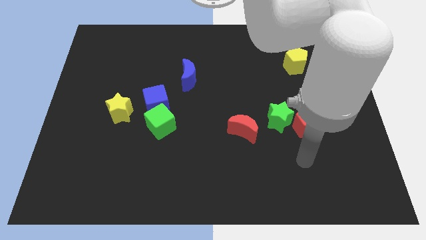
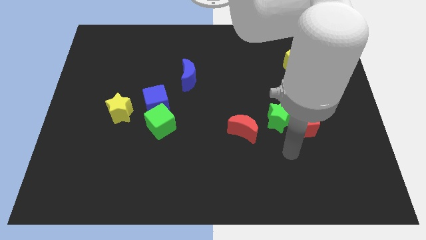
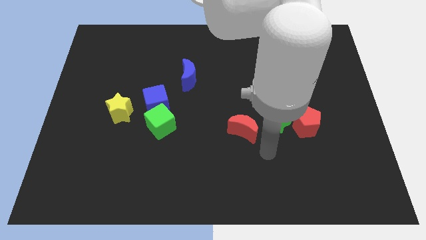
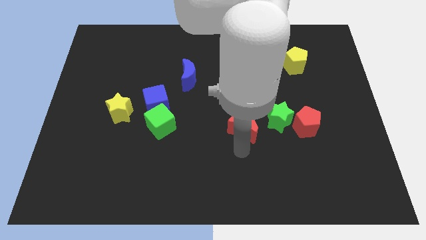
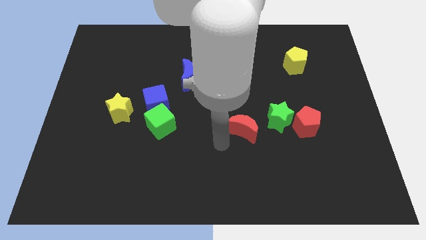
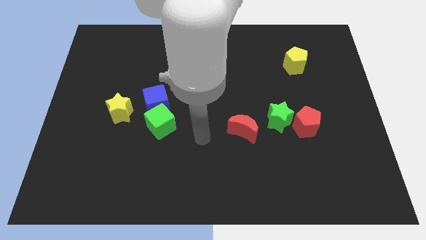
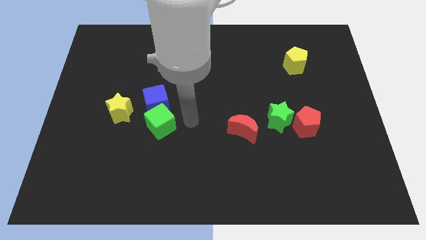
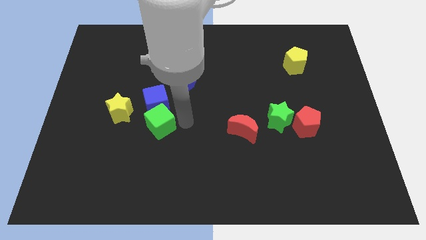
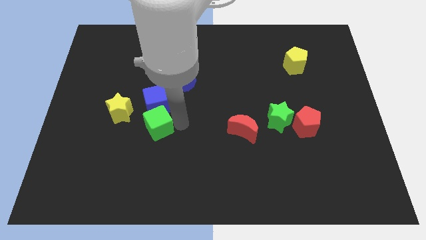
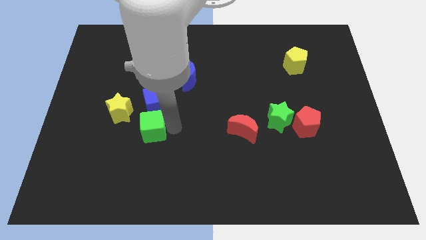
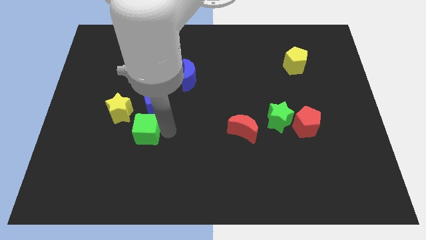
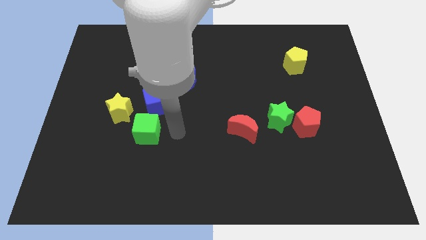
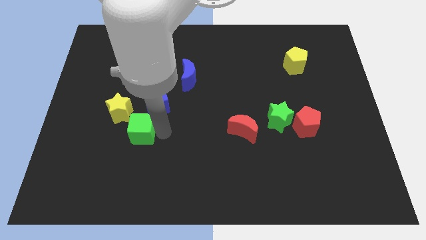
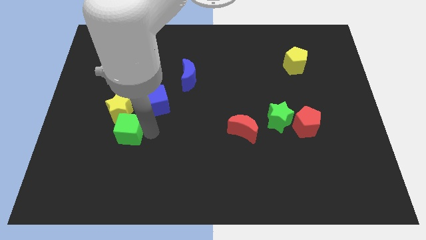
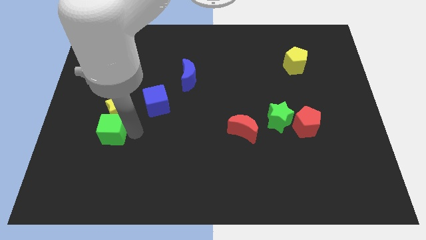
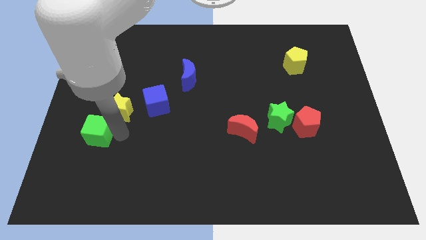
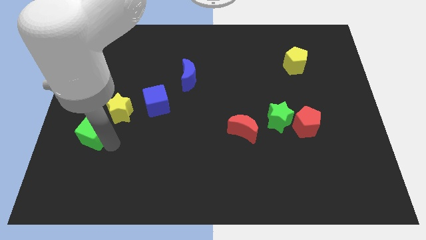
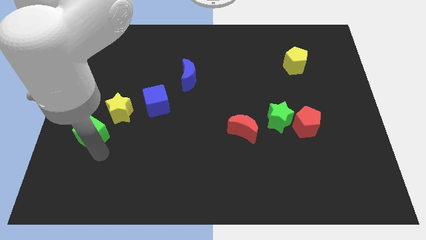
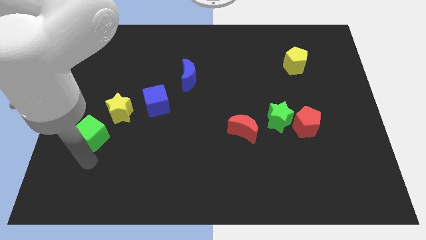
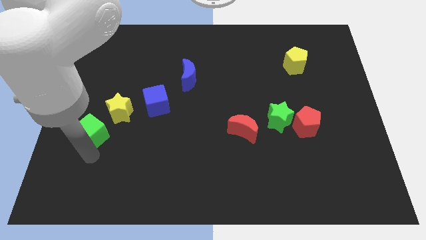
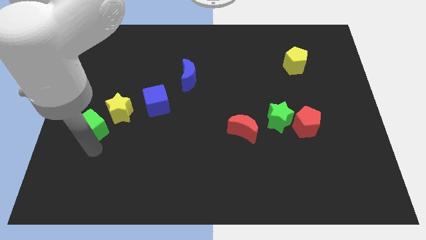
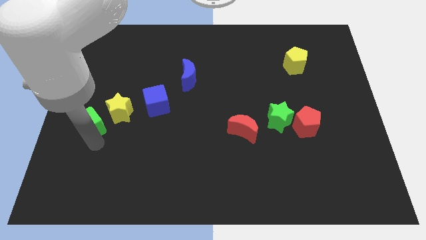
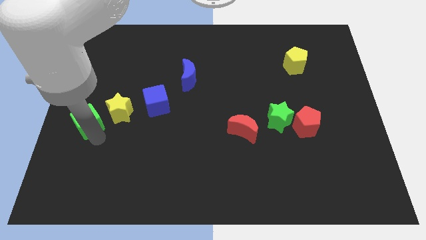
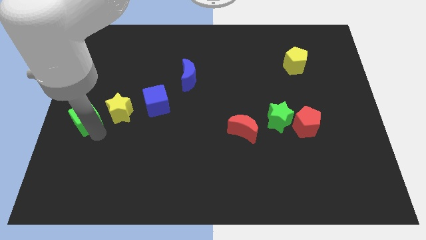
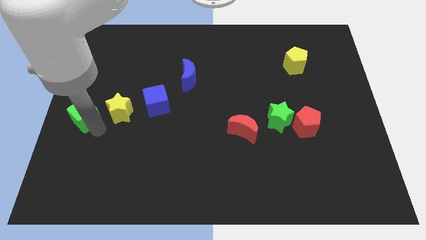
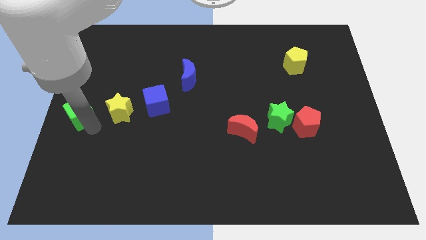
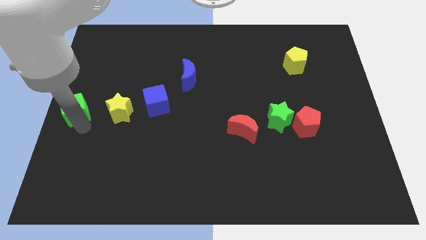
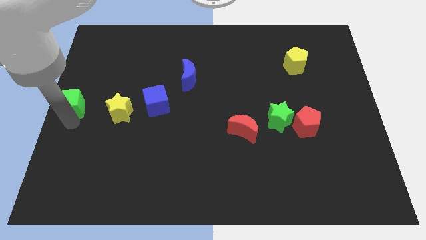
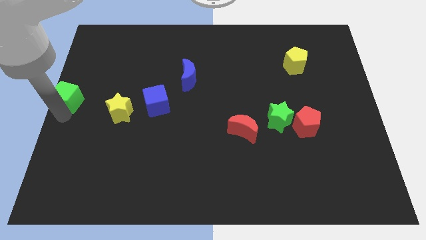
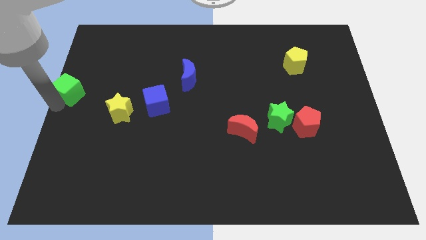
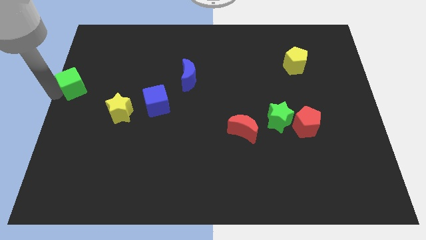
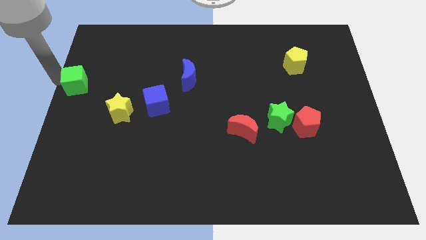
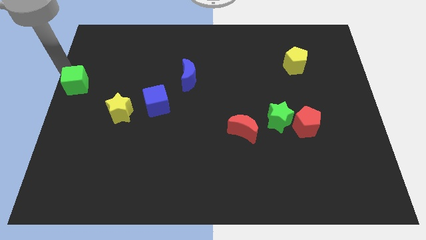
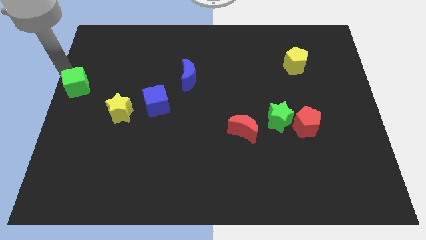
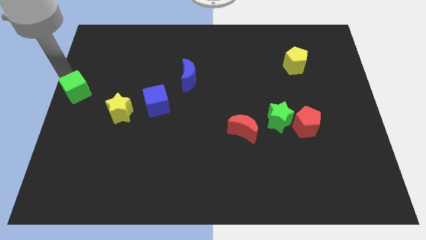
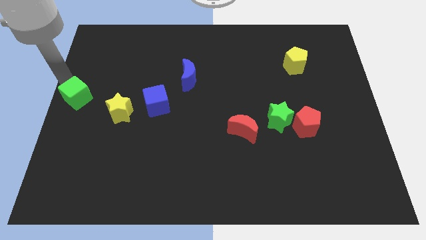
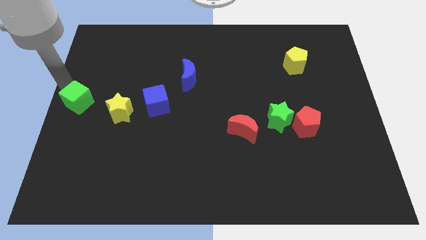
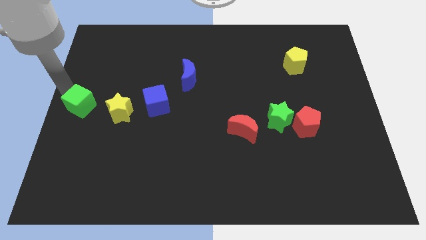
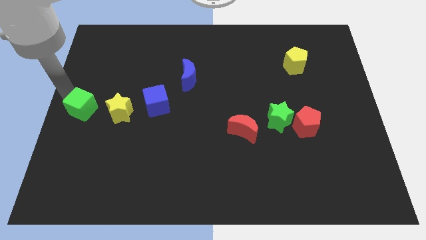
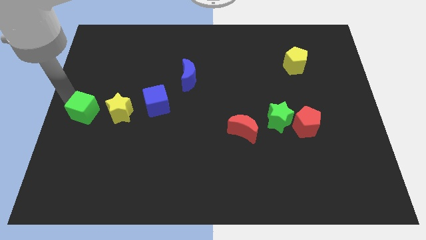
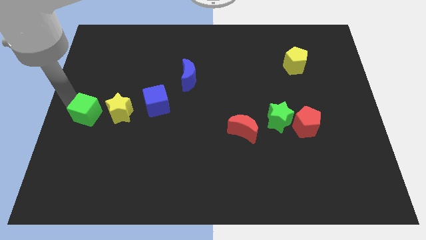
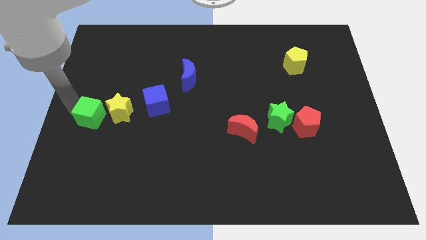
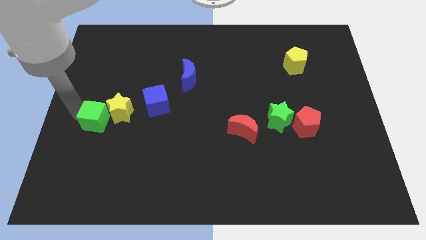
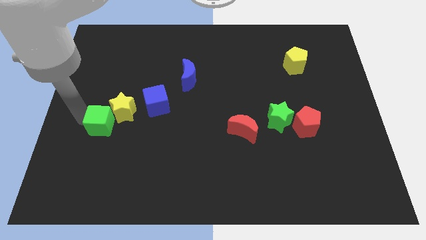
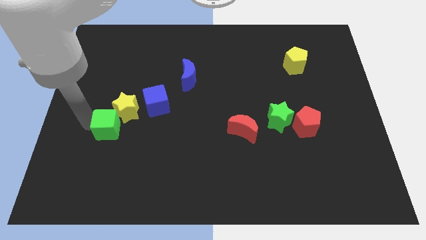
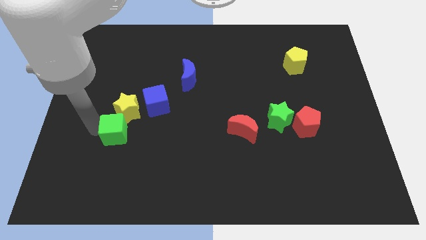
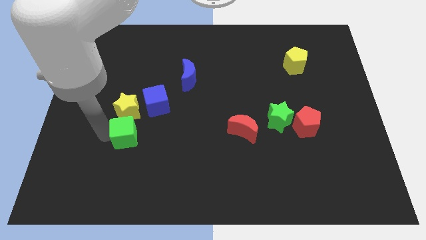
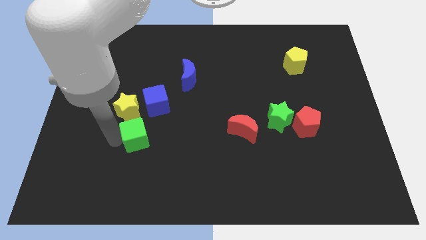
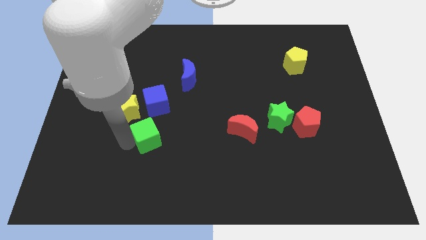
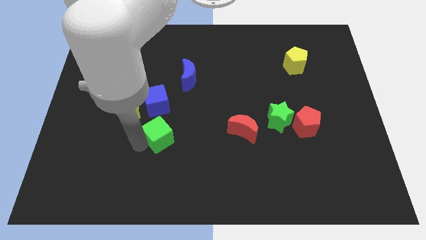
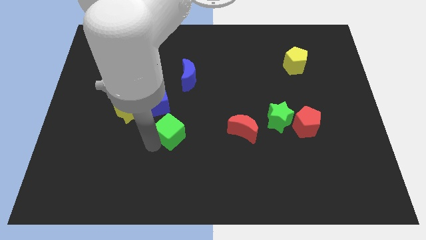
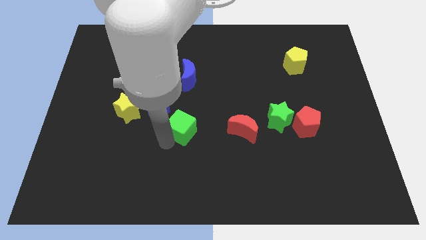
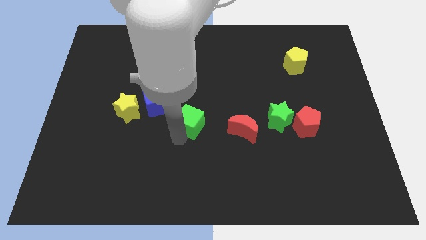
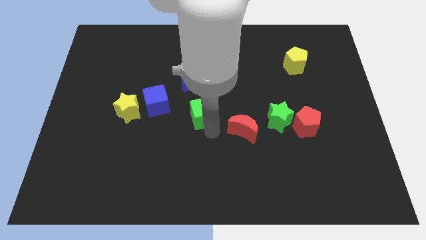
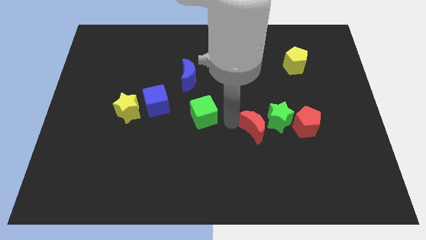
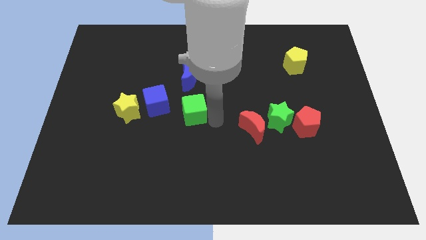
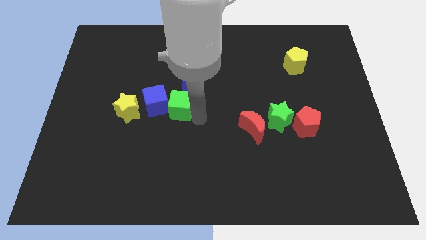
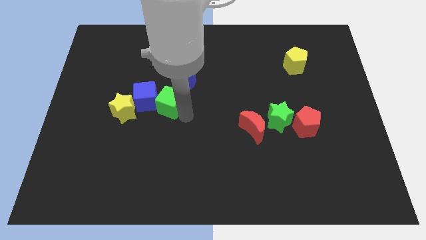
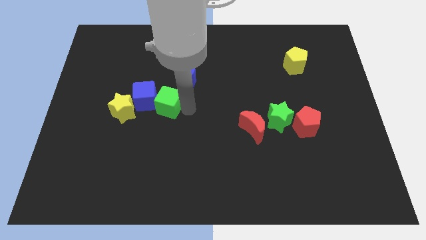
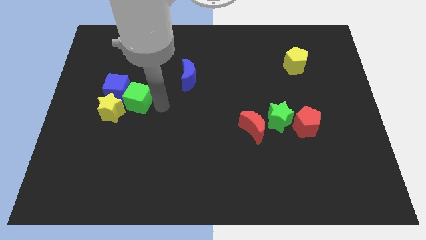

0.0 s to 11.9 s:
push the green cube to the top right of the yellow star

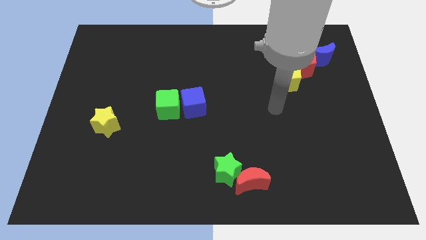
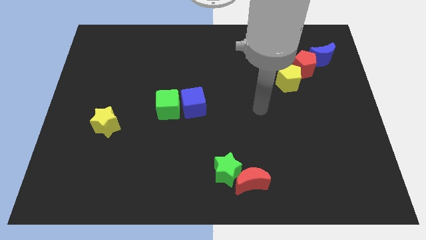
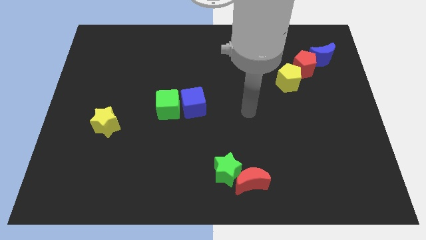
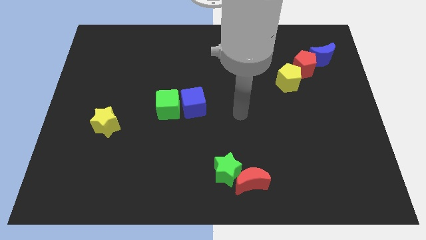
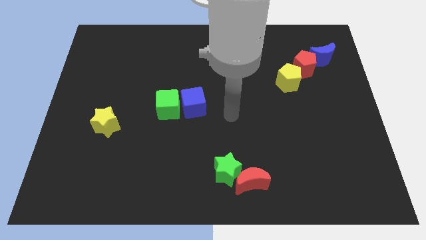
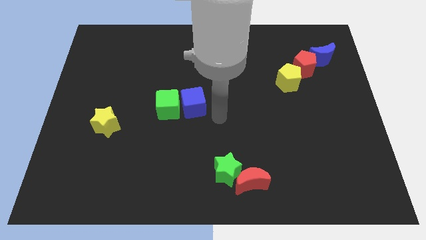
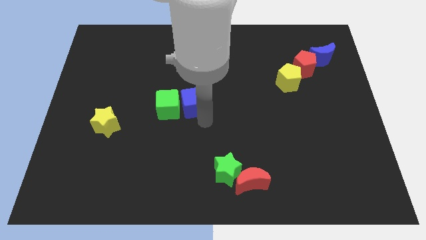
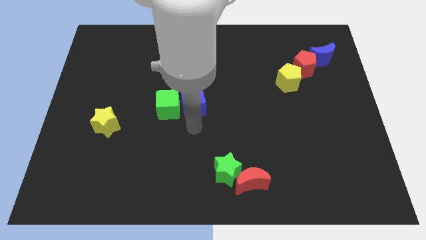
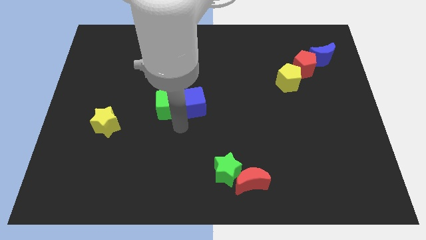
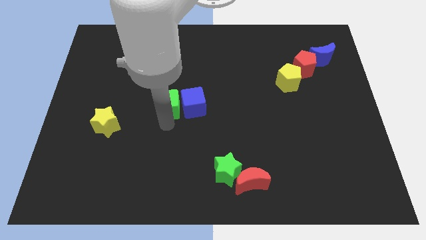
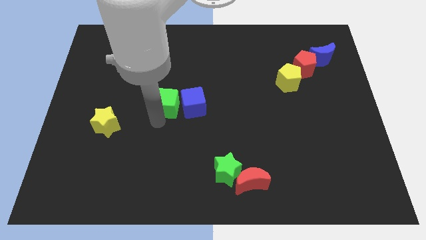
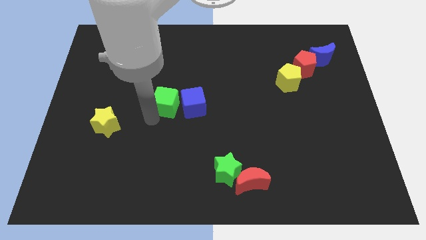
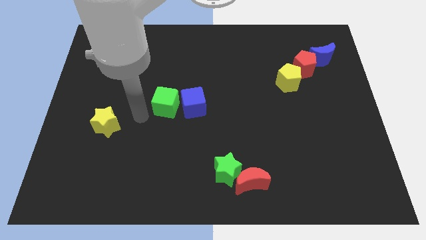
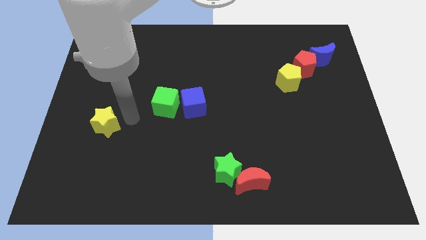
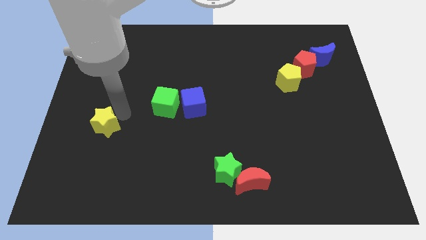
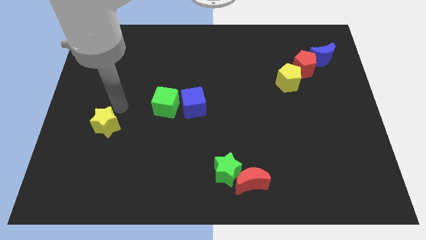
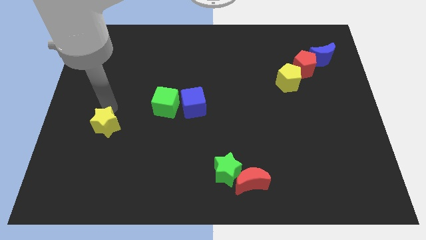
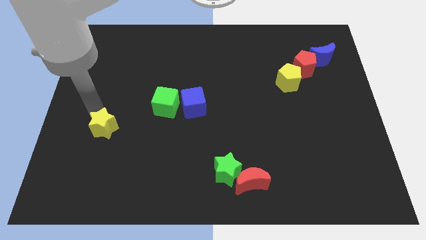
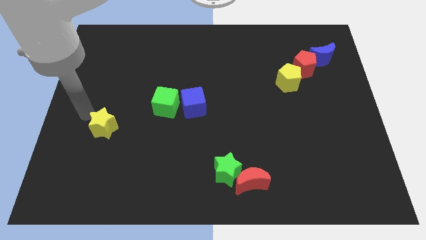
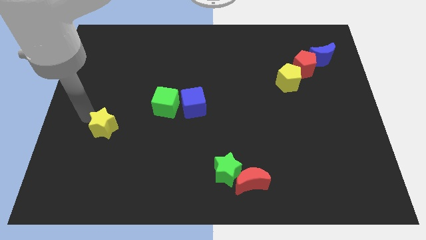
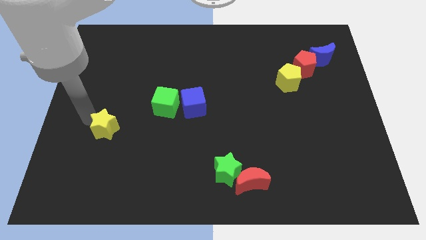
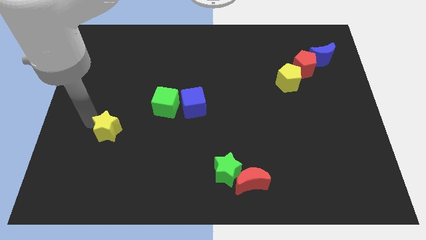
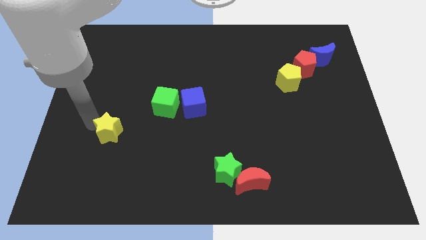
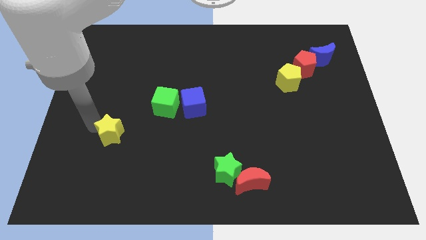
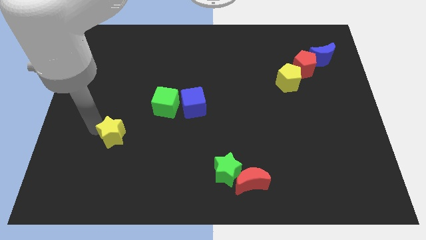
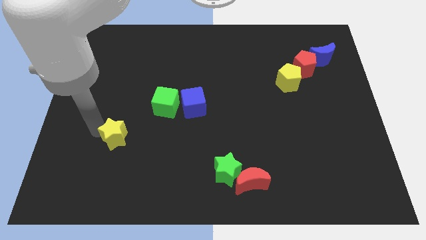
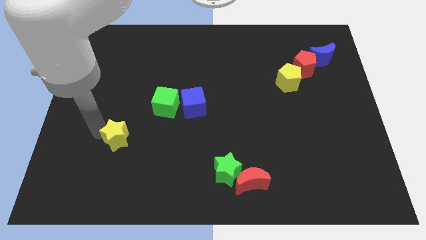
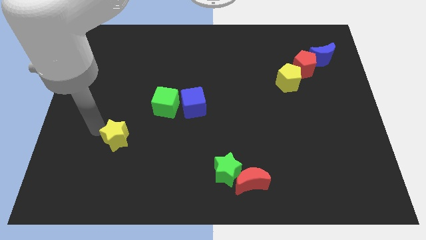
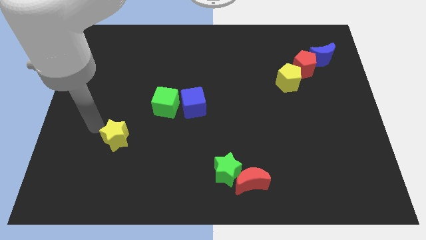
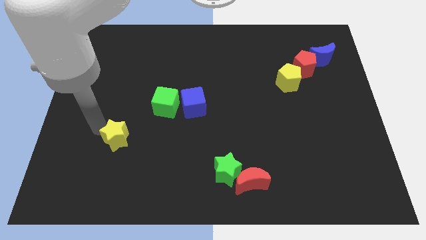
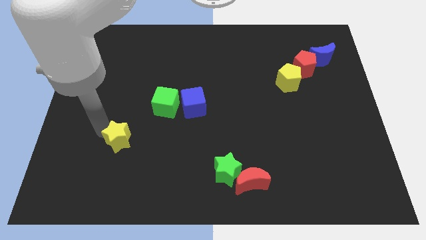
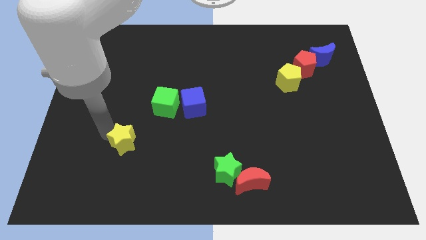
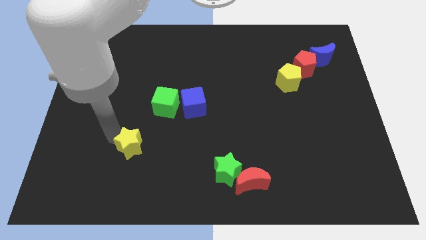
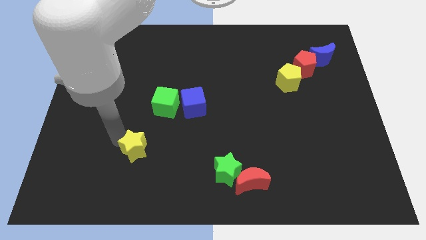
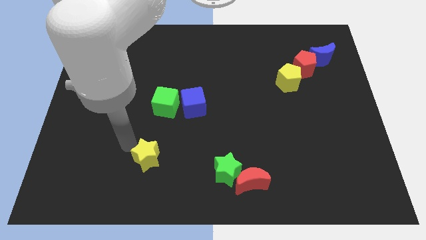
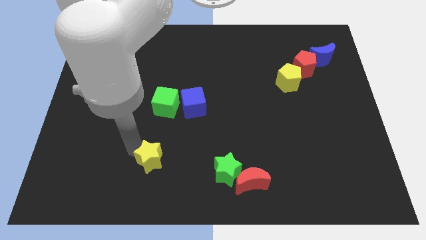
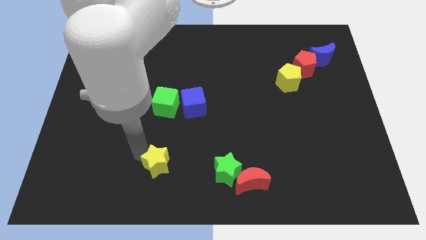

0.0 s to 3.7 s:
move the yellow star to the left of the green star
